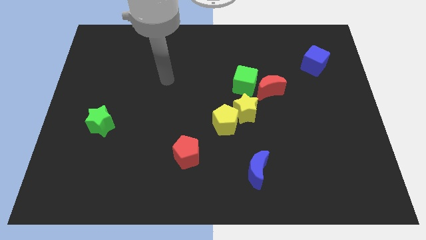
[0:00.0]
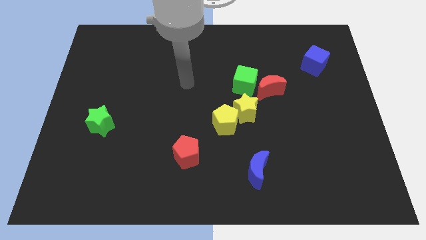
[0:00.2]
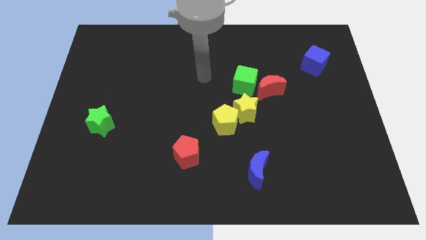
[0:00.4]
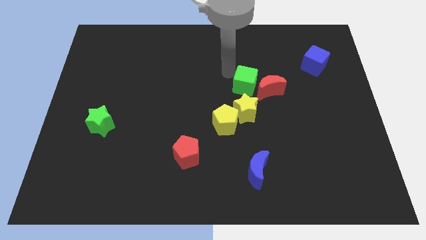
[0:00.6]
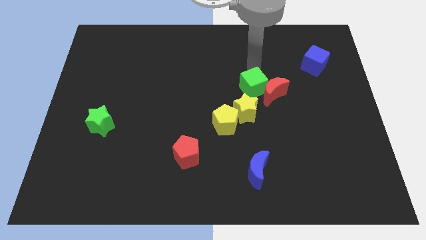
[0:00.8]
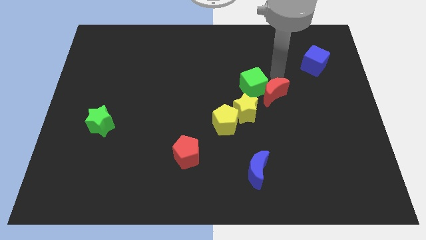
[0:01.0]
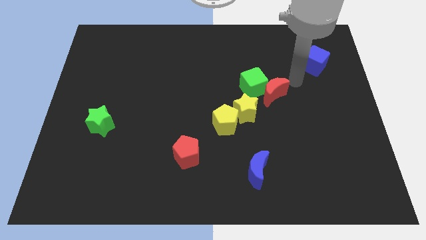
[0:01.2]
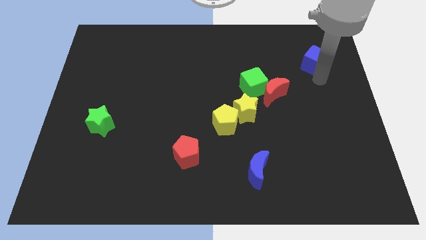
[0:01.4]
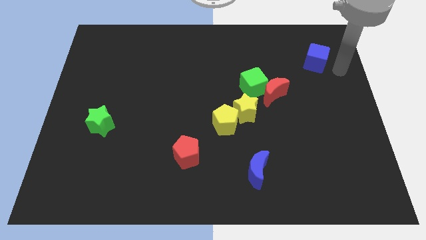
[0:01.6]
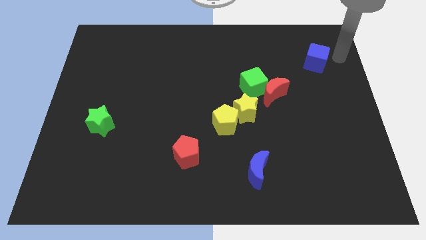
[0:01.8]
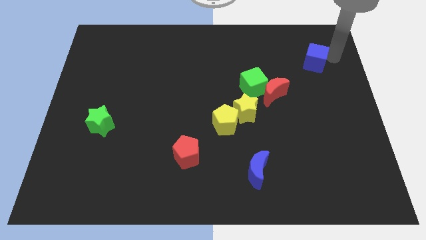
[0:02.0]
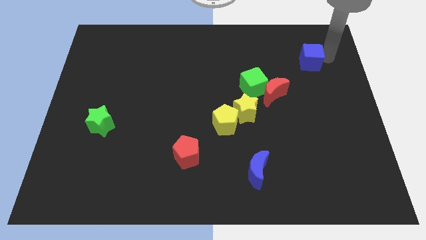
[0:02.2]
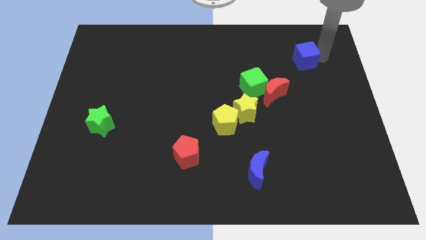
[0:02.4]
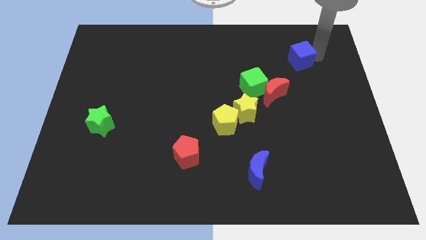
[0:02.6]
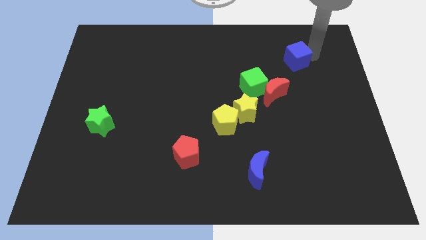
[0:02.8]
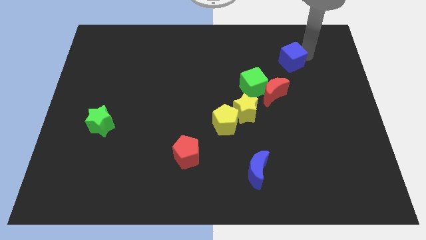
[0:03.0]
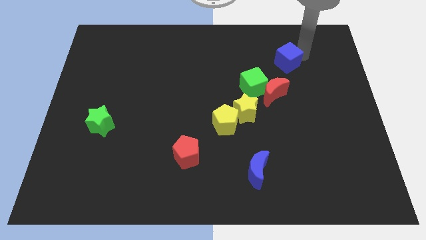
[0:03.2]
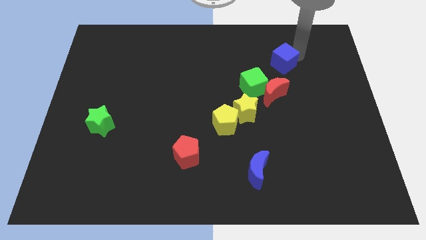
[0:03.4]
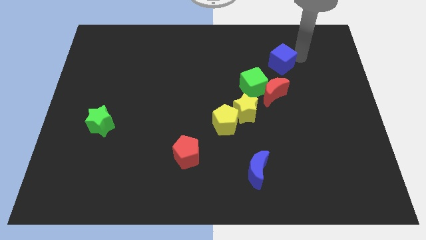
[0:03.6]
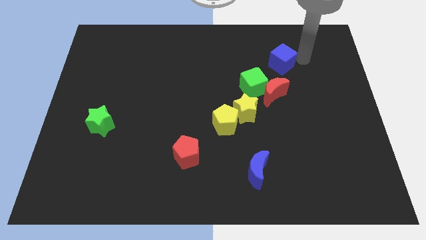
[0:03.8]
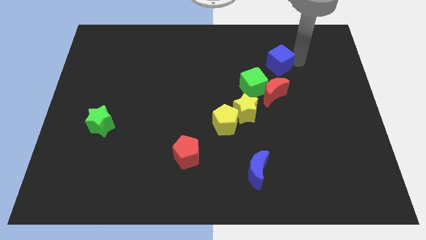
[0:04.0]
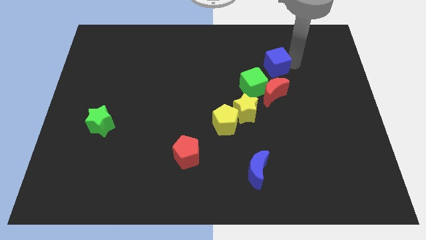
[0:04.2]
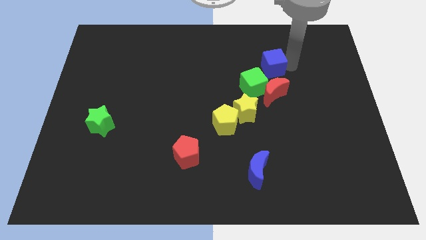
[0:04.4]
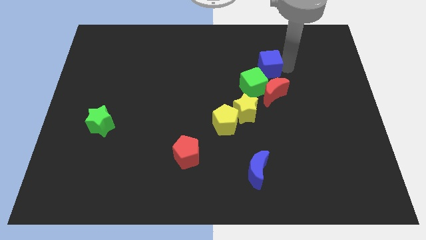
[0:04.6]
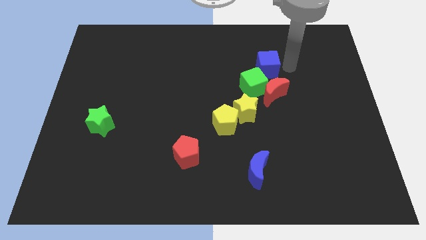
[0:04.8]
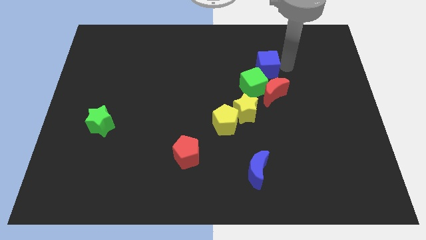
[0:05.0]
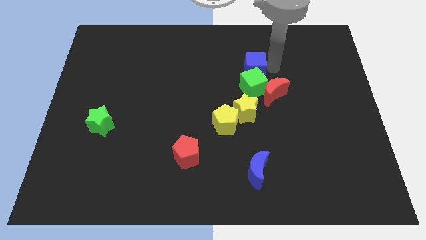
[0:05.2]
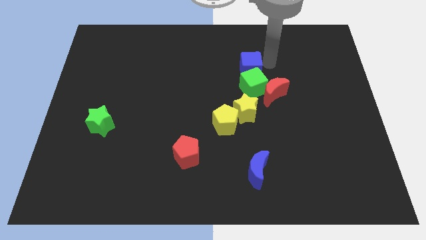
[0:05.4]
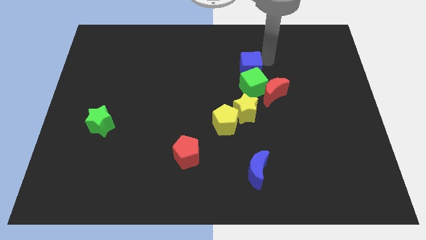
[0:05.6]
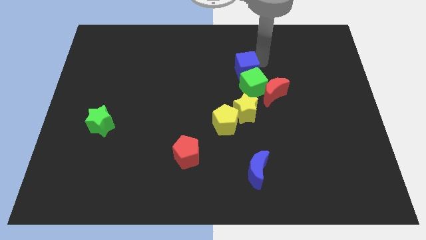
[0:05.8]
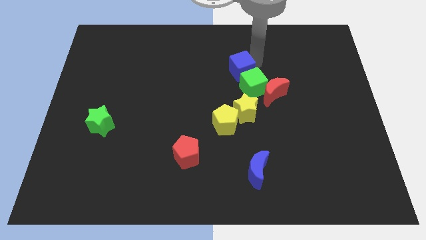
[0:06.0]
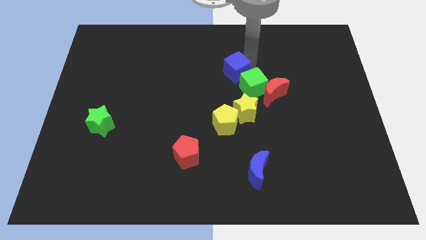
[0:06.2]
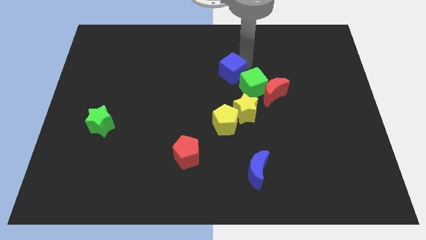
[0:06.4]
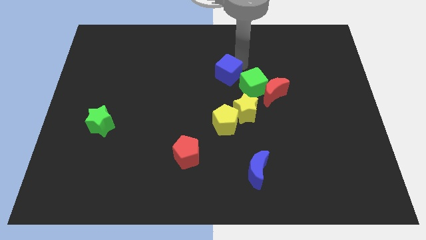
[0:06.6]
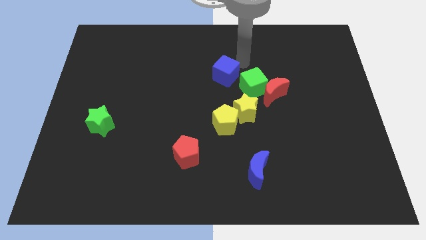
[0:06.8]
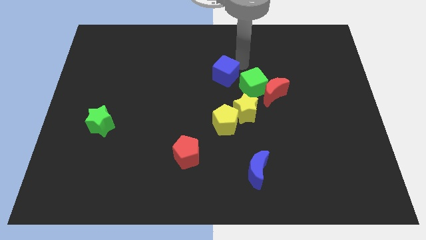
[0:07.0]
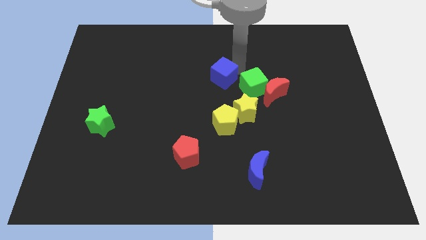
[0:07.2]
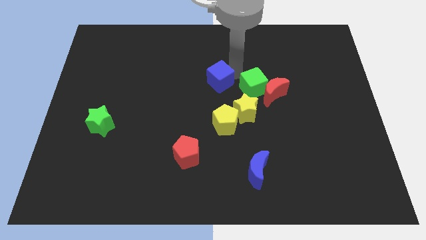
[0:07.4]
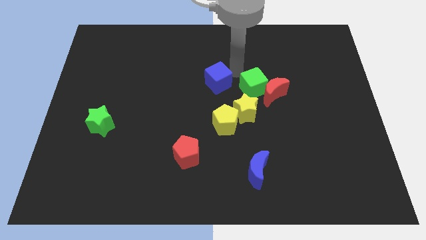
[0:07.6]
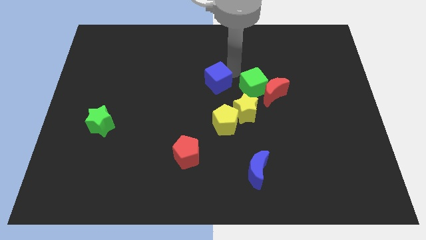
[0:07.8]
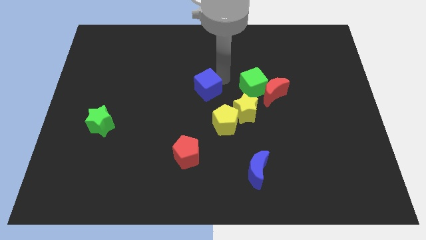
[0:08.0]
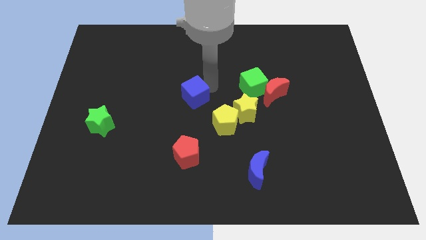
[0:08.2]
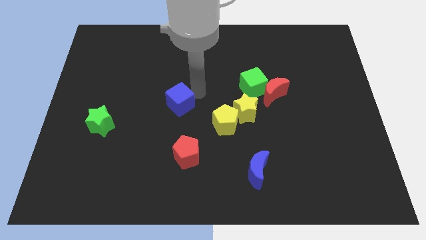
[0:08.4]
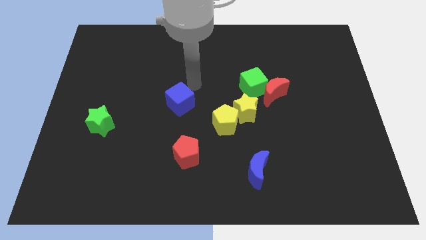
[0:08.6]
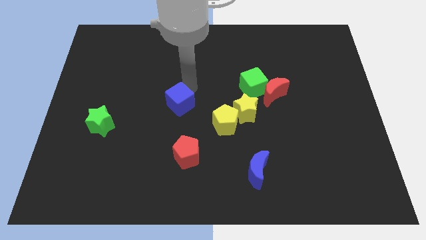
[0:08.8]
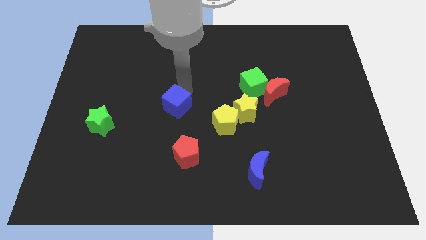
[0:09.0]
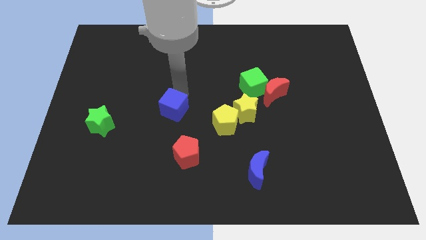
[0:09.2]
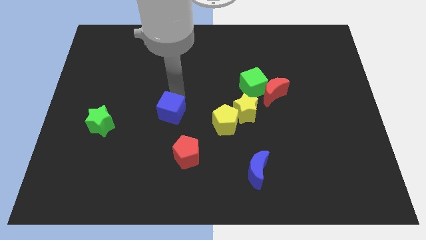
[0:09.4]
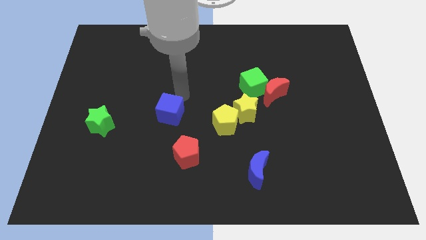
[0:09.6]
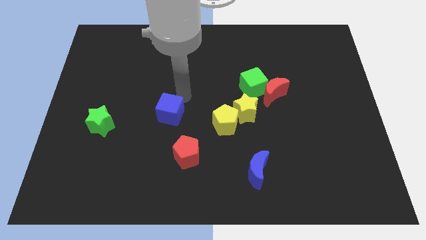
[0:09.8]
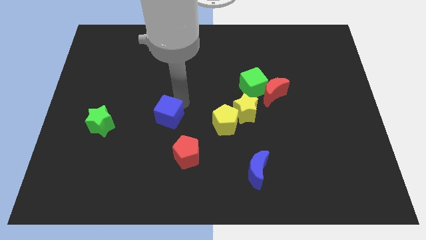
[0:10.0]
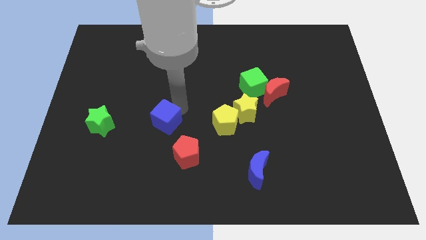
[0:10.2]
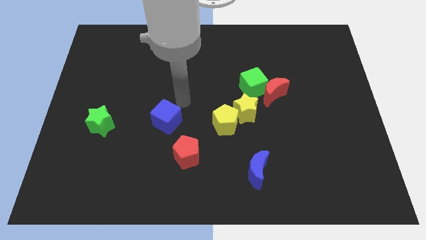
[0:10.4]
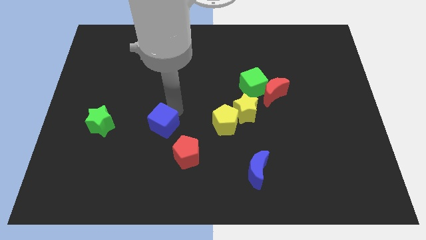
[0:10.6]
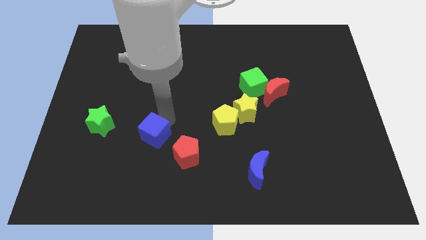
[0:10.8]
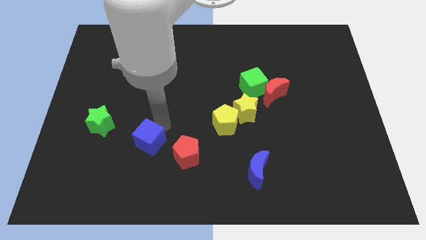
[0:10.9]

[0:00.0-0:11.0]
put the blue cube just left of the red pentagon

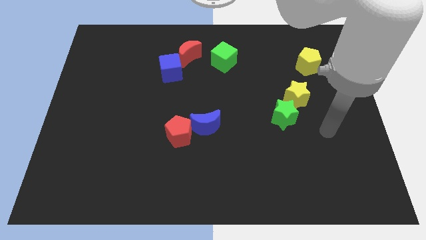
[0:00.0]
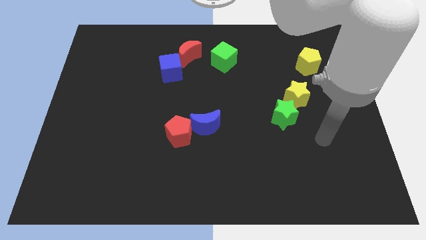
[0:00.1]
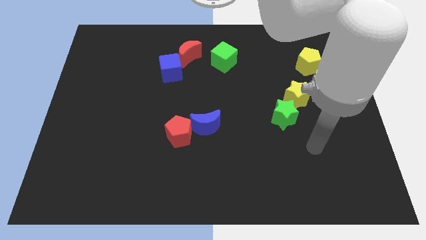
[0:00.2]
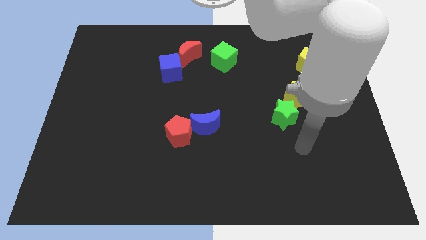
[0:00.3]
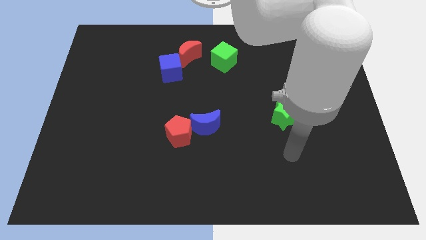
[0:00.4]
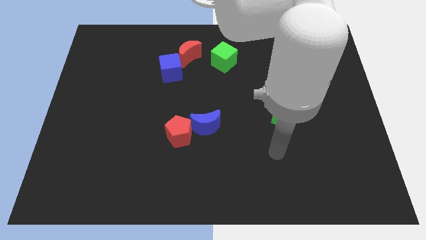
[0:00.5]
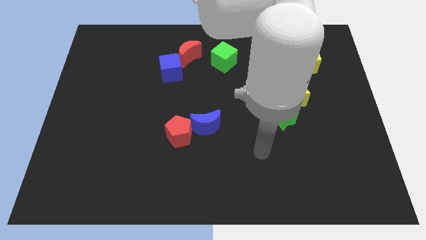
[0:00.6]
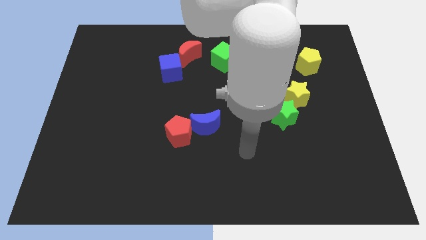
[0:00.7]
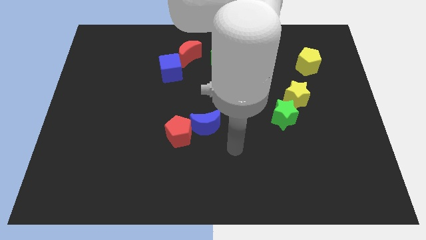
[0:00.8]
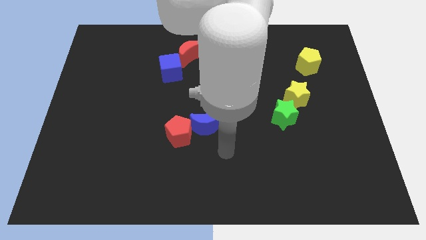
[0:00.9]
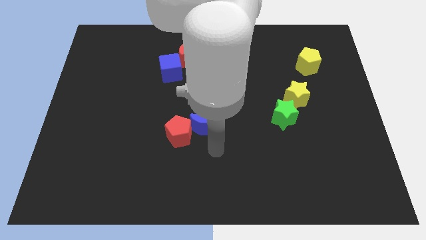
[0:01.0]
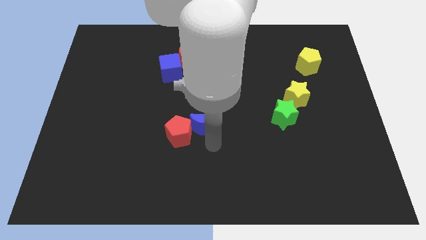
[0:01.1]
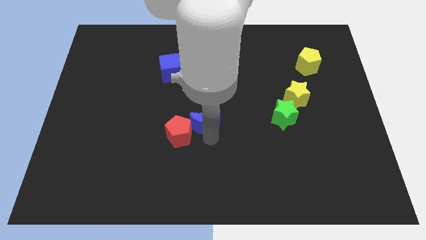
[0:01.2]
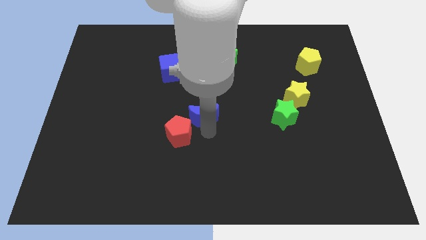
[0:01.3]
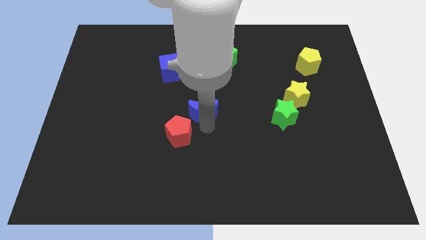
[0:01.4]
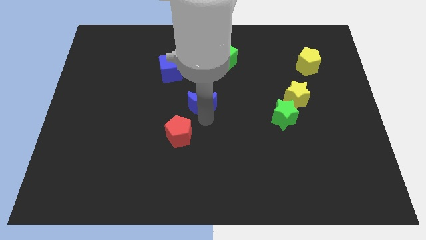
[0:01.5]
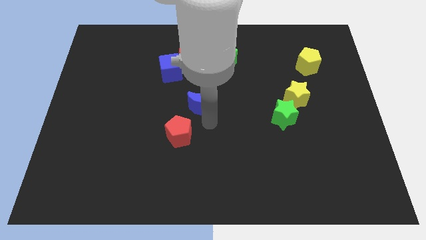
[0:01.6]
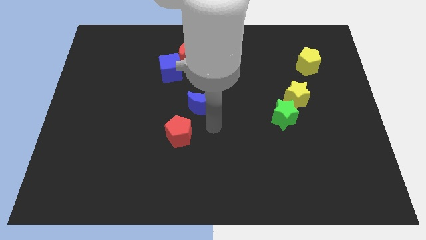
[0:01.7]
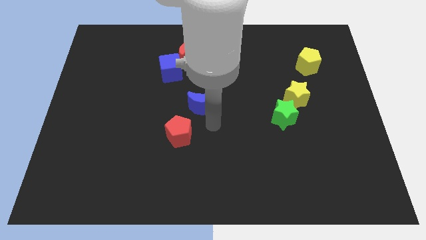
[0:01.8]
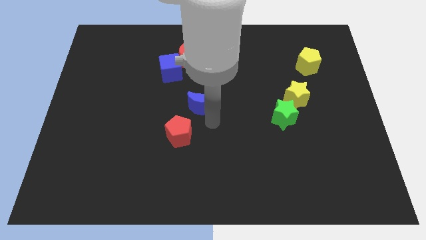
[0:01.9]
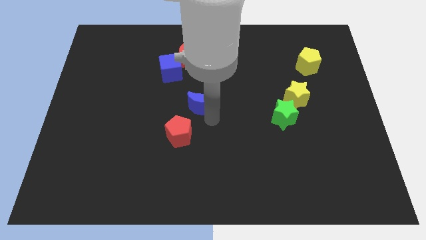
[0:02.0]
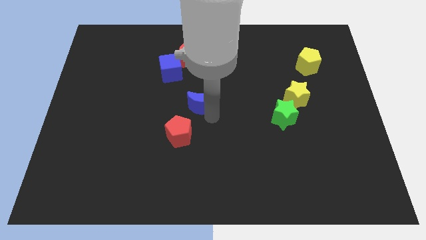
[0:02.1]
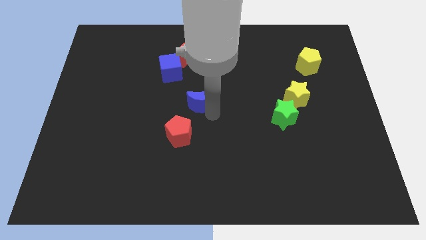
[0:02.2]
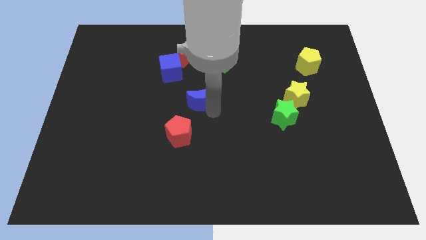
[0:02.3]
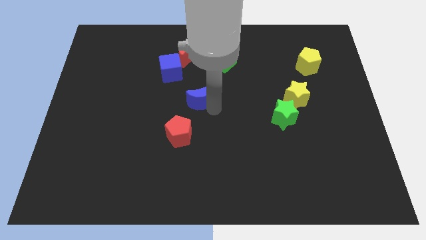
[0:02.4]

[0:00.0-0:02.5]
put the blue moon to the bottom right side of the blue cube
